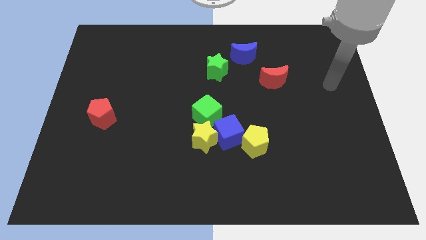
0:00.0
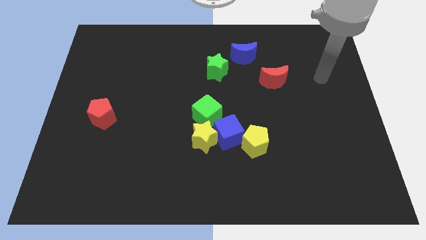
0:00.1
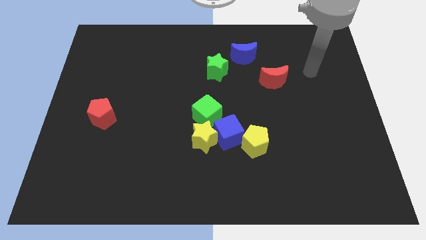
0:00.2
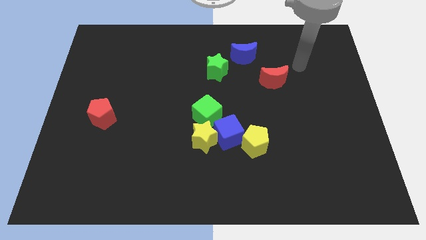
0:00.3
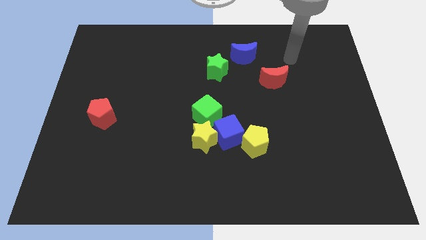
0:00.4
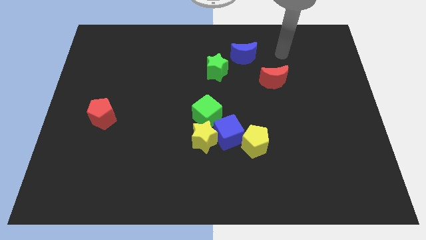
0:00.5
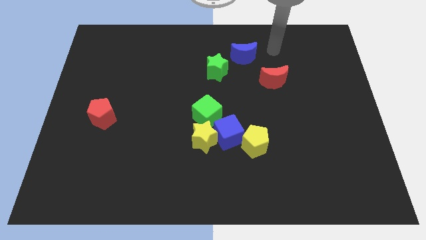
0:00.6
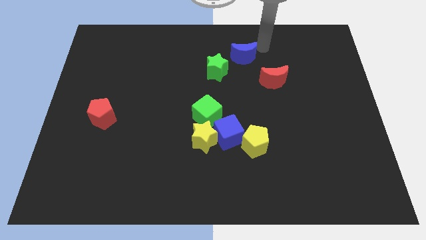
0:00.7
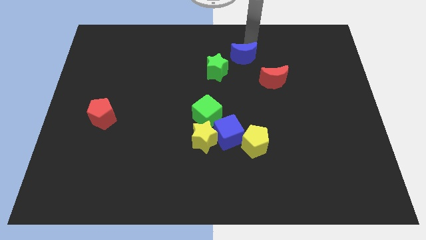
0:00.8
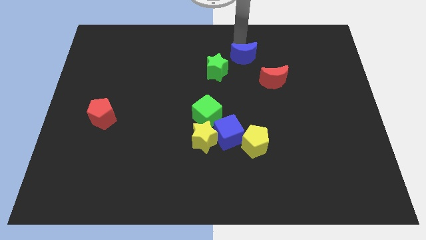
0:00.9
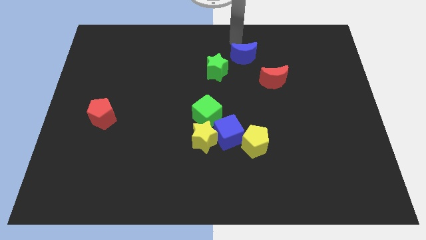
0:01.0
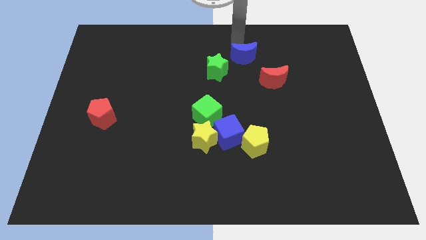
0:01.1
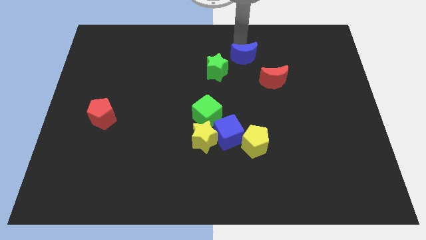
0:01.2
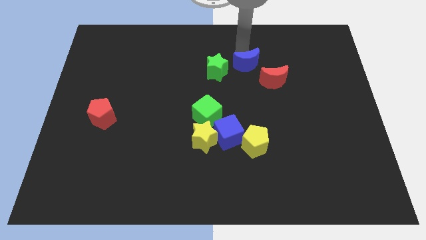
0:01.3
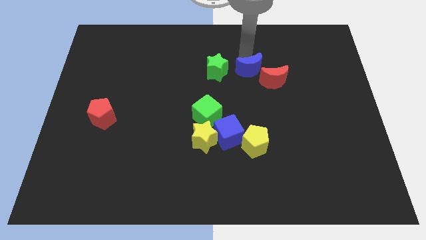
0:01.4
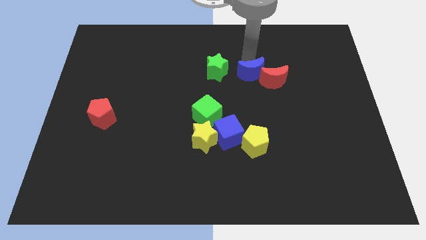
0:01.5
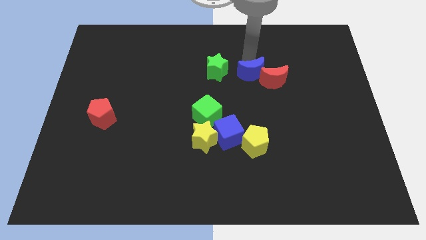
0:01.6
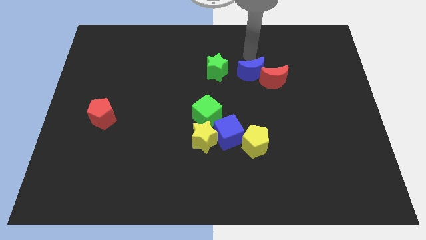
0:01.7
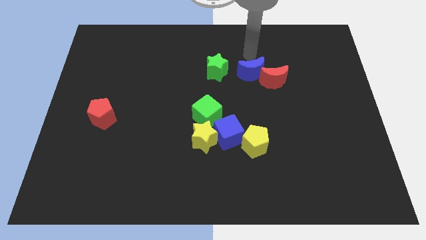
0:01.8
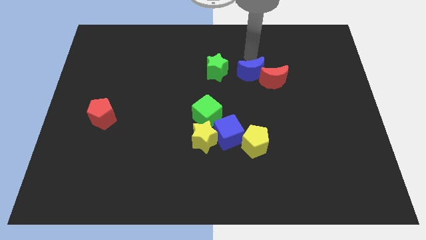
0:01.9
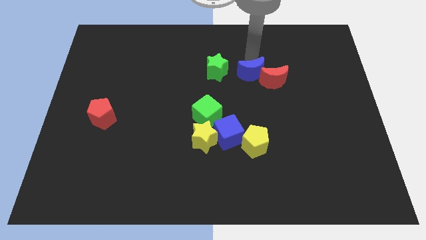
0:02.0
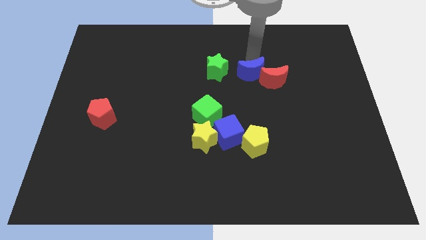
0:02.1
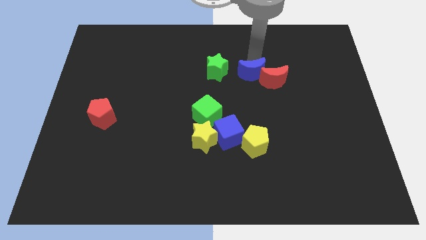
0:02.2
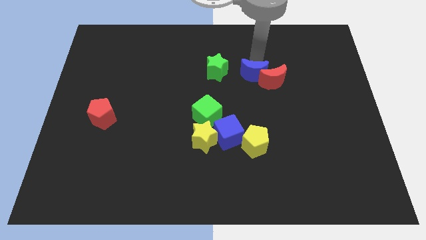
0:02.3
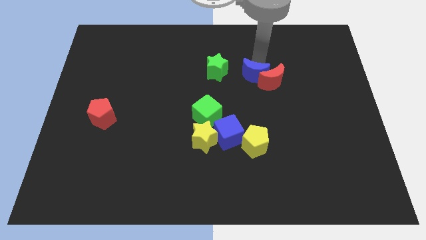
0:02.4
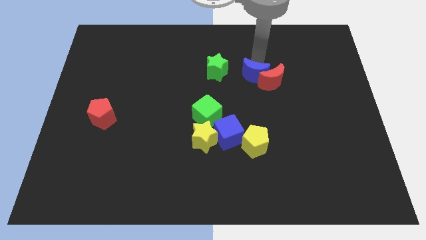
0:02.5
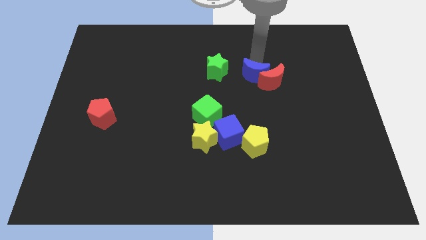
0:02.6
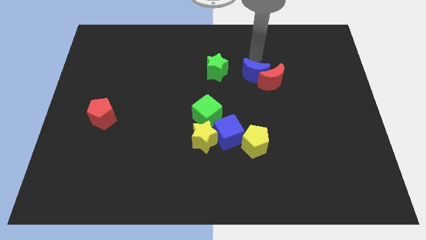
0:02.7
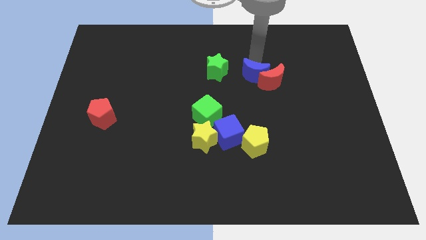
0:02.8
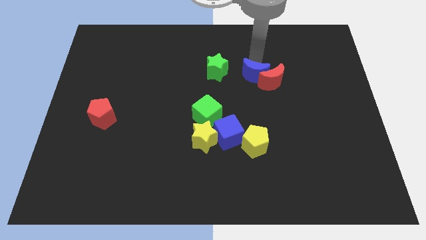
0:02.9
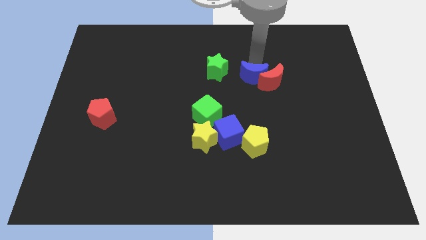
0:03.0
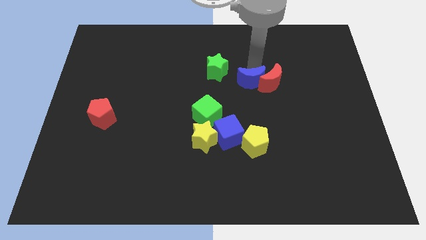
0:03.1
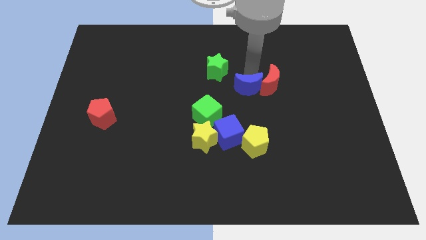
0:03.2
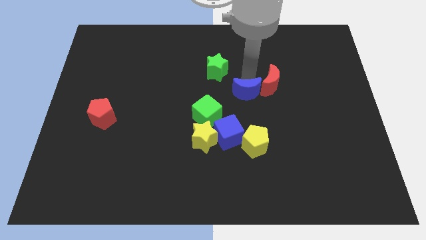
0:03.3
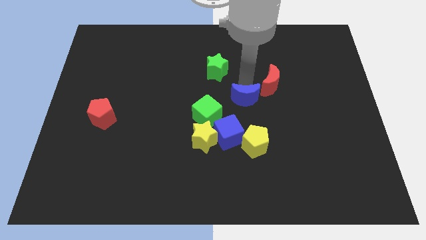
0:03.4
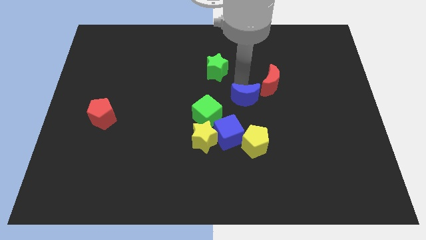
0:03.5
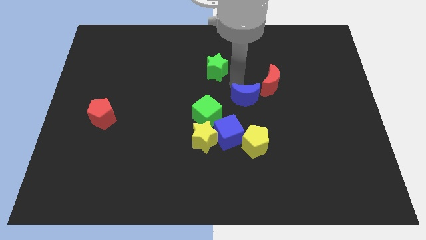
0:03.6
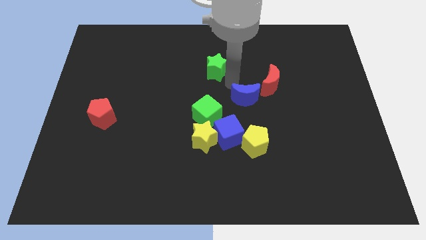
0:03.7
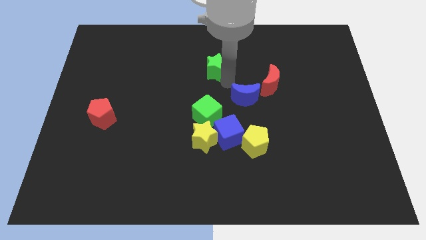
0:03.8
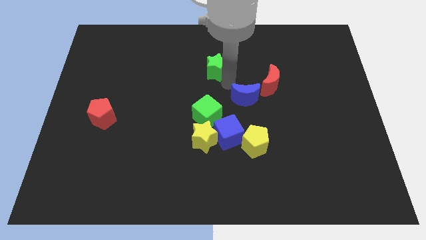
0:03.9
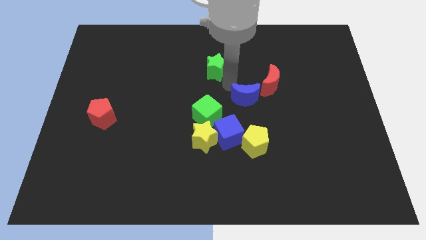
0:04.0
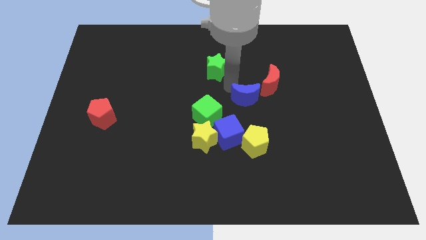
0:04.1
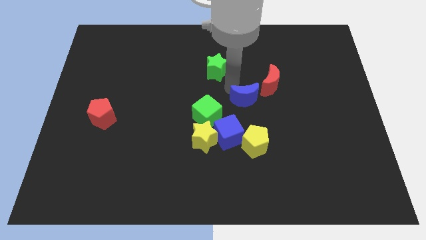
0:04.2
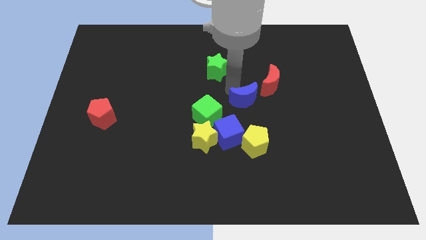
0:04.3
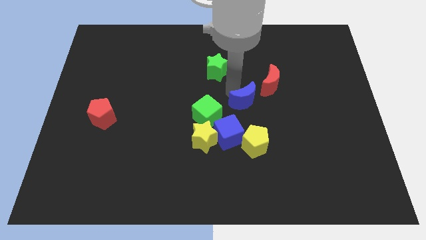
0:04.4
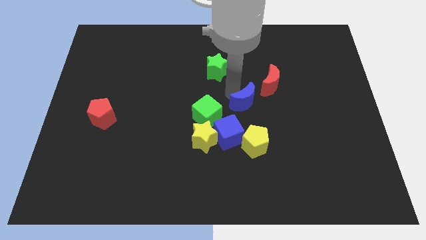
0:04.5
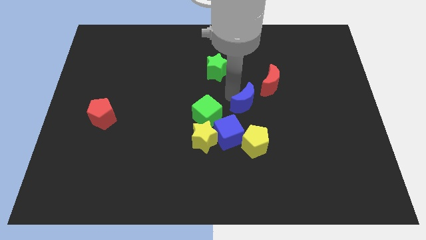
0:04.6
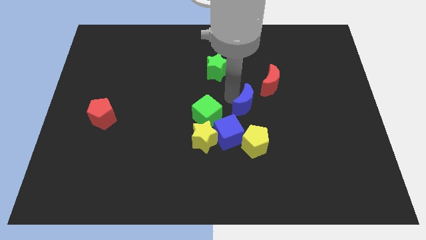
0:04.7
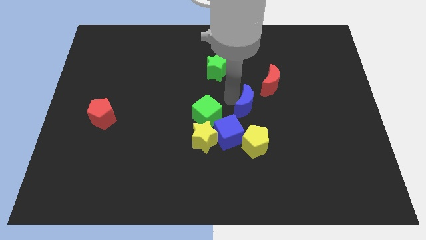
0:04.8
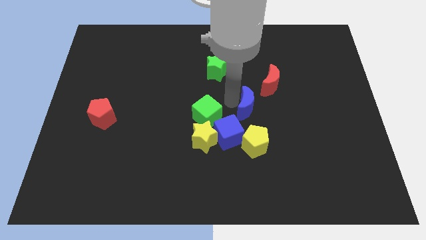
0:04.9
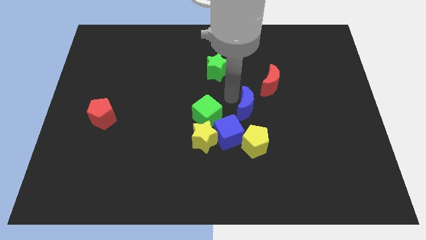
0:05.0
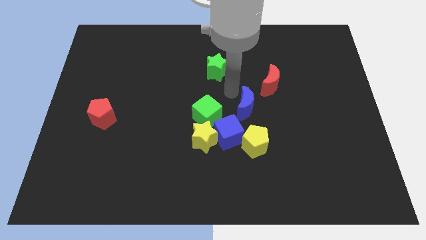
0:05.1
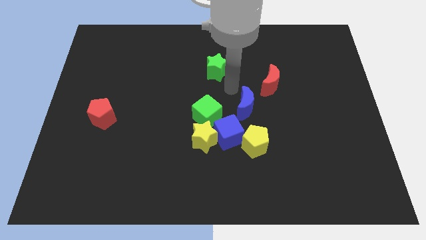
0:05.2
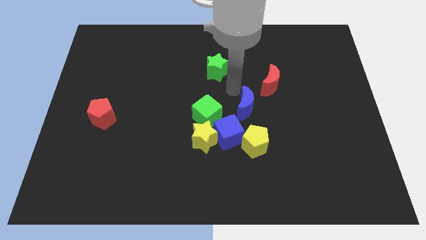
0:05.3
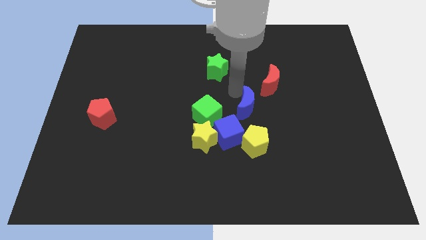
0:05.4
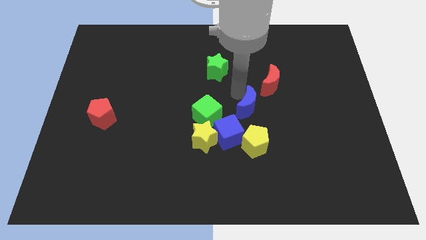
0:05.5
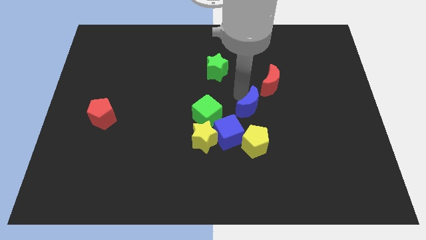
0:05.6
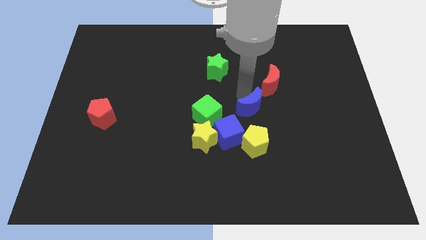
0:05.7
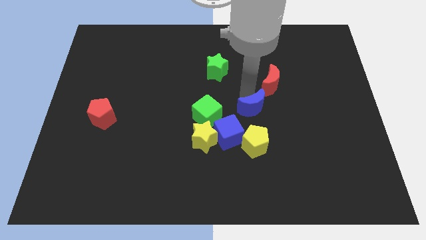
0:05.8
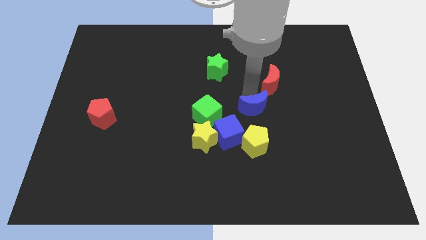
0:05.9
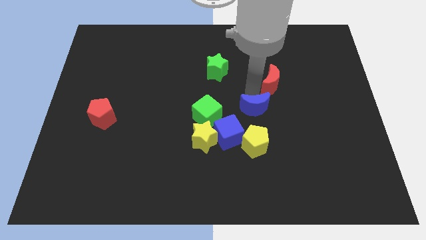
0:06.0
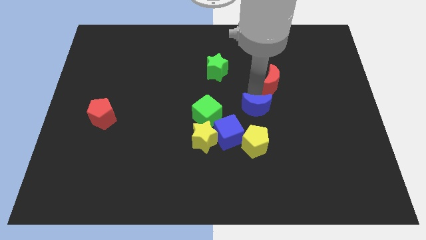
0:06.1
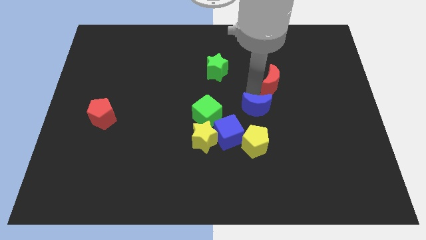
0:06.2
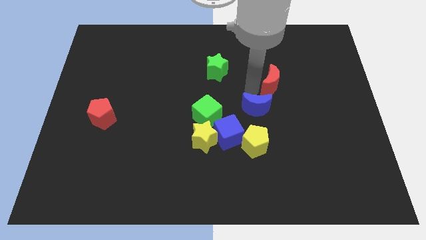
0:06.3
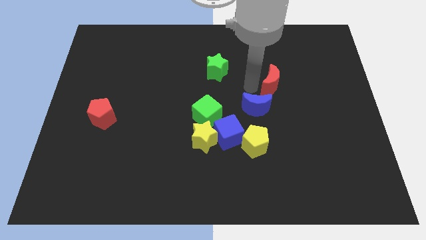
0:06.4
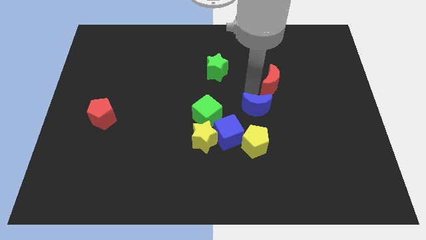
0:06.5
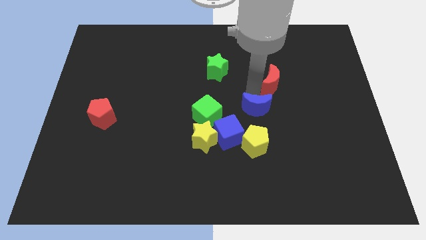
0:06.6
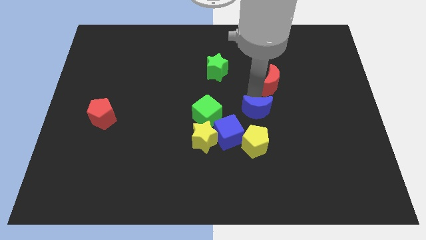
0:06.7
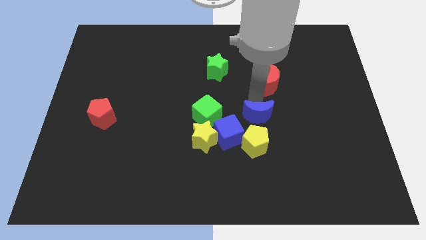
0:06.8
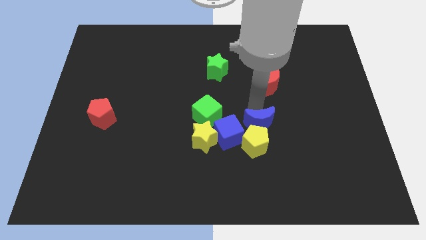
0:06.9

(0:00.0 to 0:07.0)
move the blue moon downwards

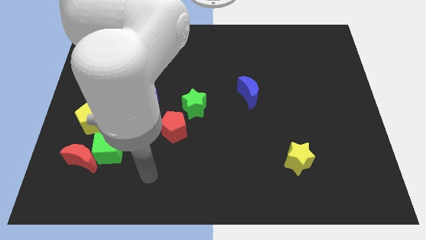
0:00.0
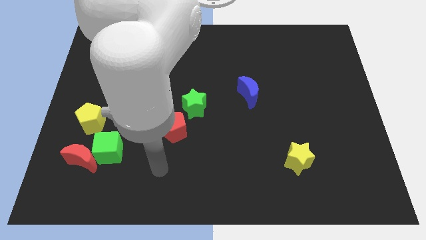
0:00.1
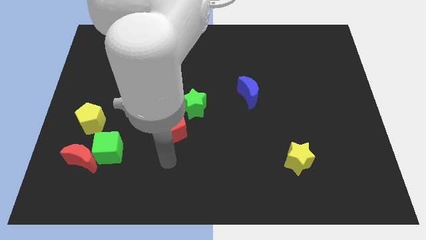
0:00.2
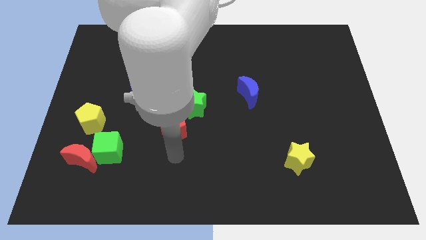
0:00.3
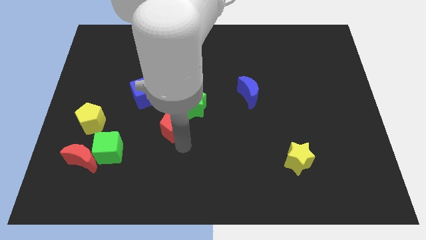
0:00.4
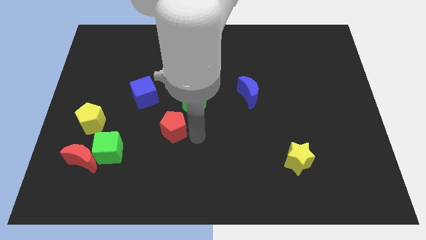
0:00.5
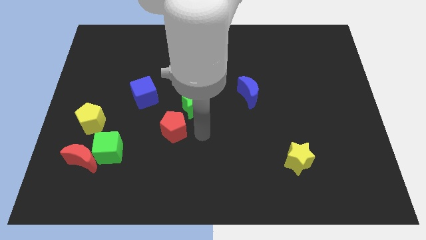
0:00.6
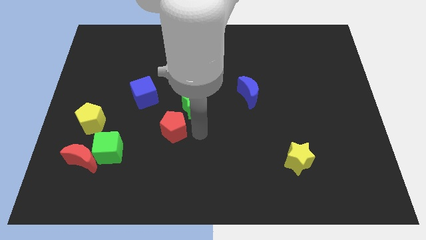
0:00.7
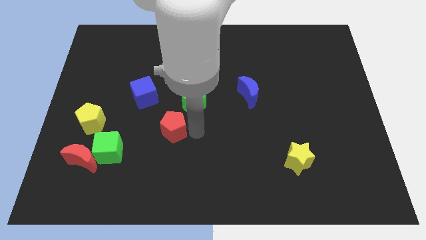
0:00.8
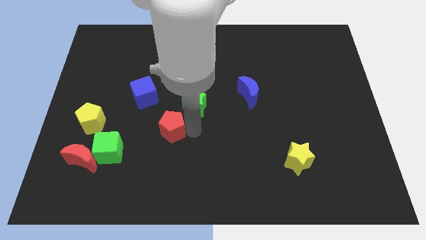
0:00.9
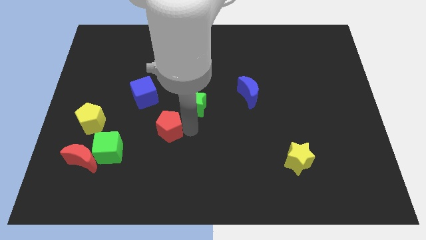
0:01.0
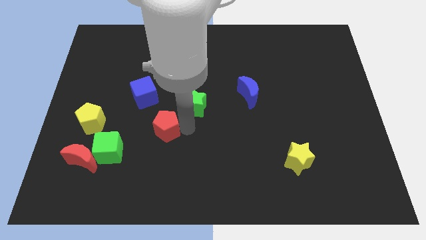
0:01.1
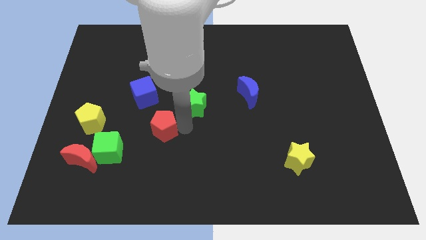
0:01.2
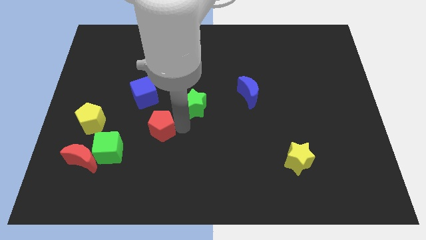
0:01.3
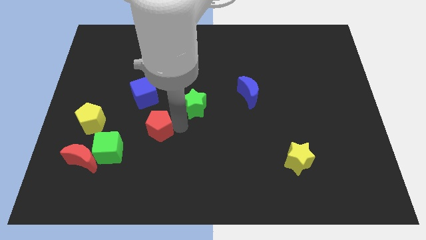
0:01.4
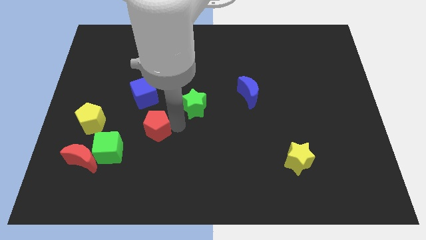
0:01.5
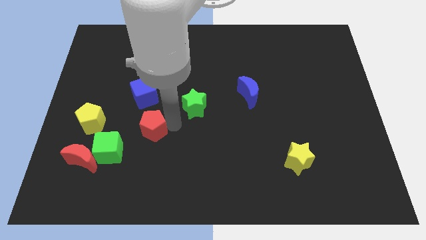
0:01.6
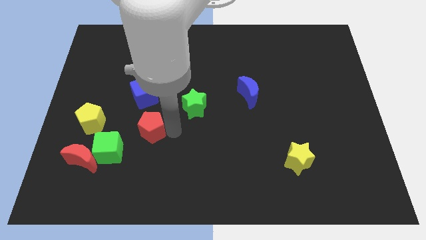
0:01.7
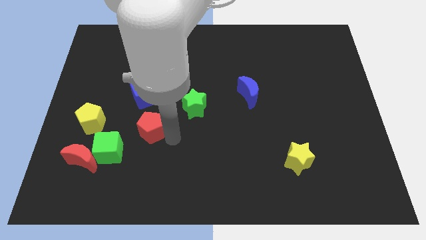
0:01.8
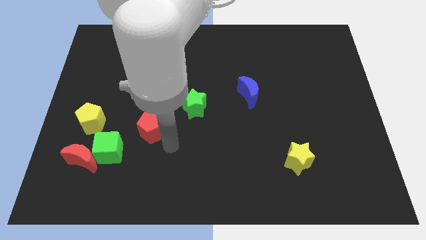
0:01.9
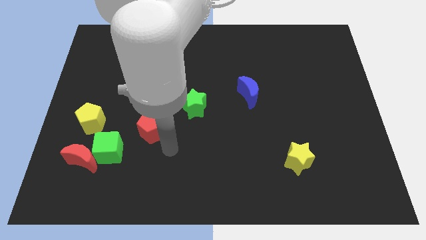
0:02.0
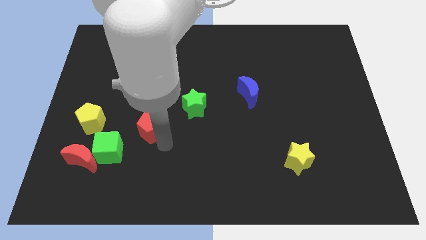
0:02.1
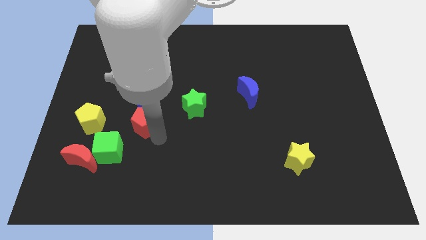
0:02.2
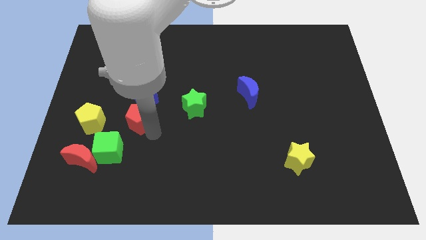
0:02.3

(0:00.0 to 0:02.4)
slightly push the red pentagon upwards and then left
